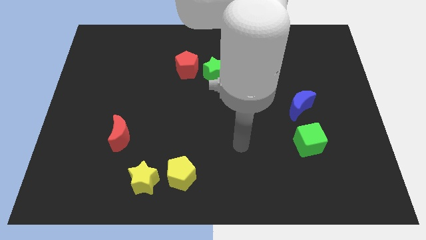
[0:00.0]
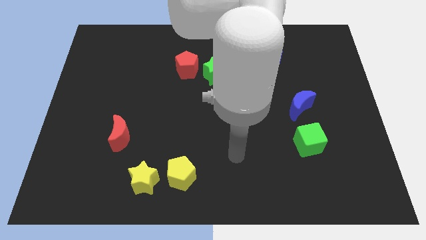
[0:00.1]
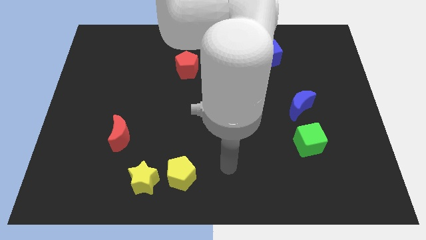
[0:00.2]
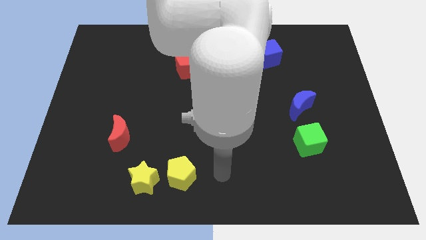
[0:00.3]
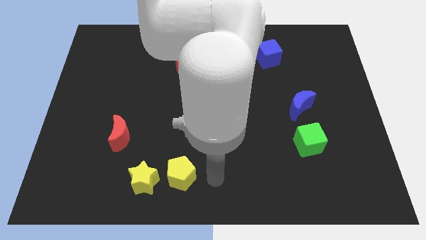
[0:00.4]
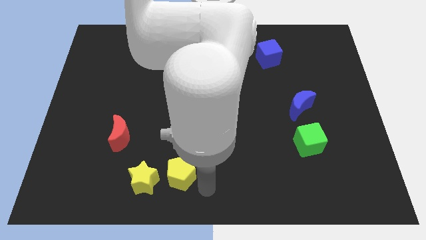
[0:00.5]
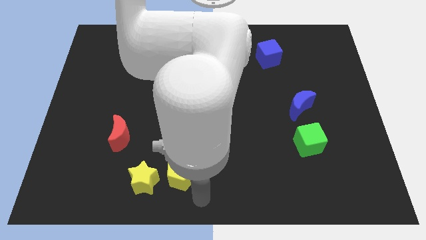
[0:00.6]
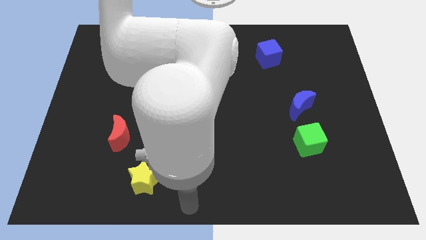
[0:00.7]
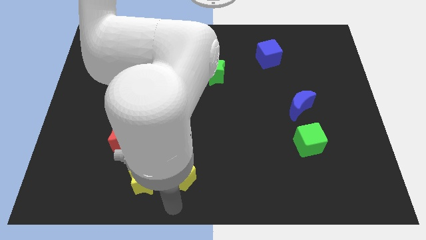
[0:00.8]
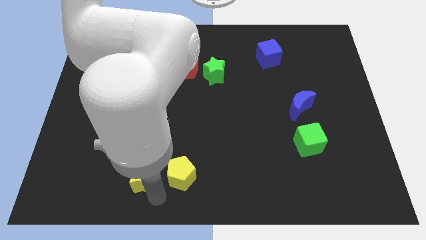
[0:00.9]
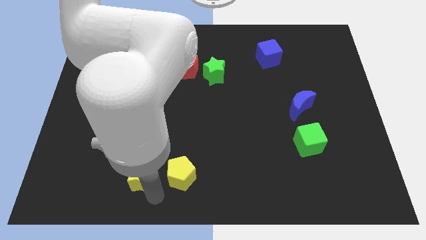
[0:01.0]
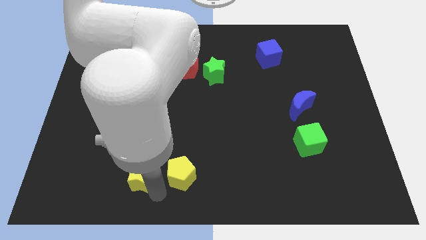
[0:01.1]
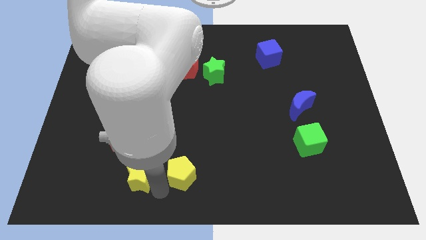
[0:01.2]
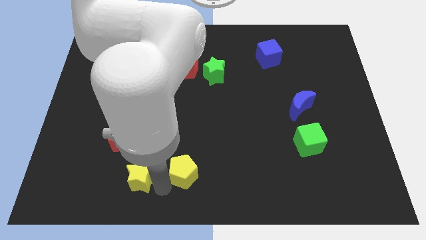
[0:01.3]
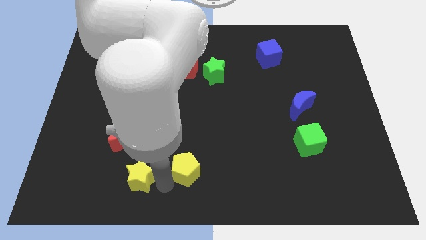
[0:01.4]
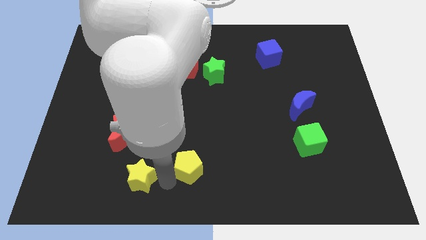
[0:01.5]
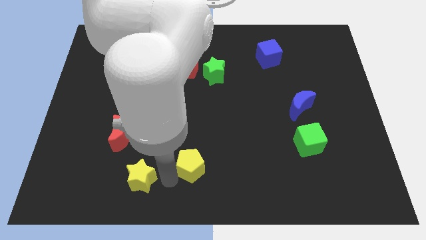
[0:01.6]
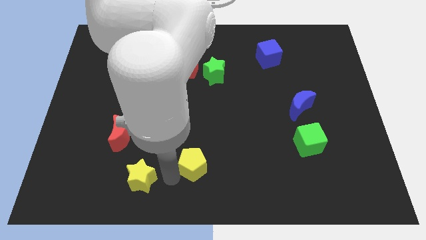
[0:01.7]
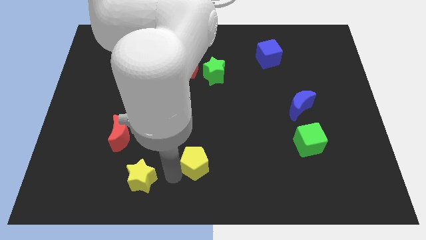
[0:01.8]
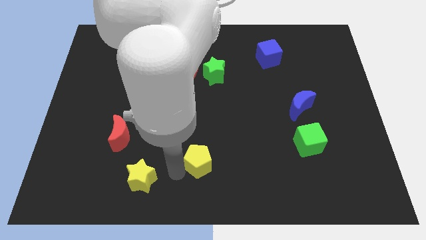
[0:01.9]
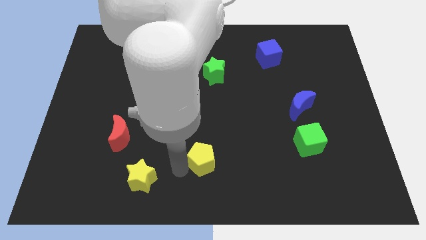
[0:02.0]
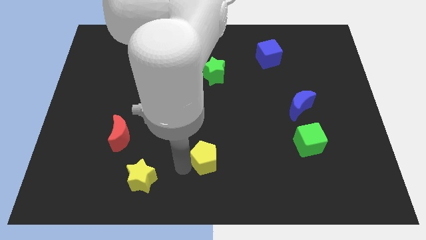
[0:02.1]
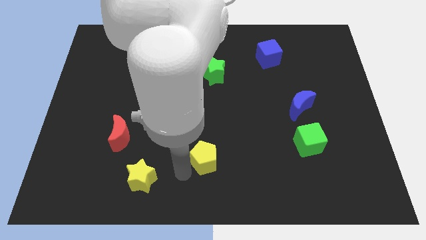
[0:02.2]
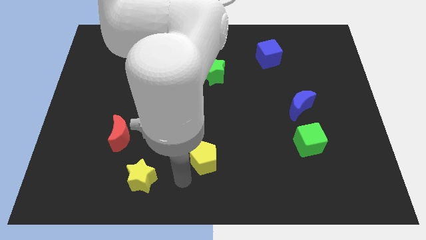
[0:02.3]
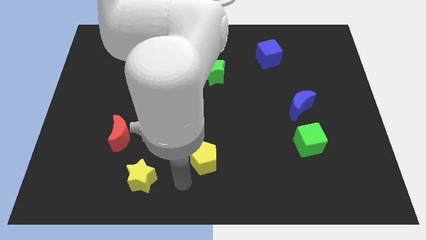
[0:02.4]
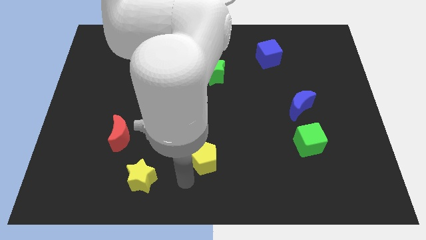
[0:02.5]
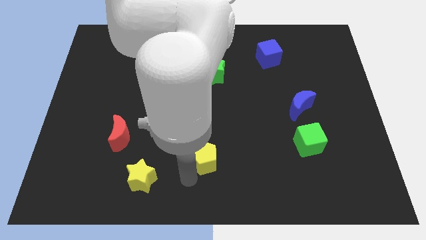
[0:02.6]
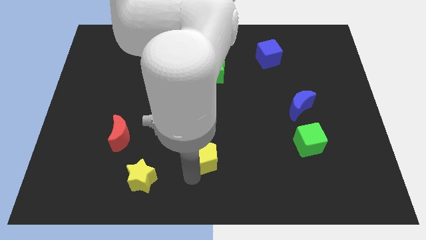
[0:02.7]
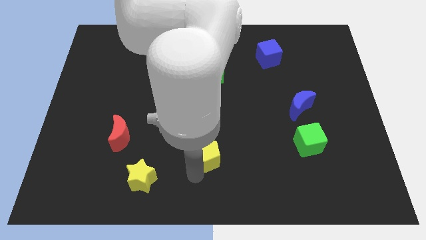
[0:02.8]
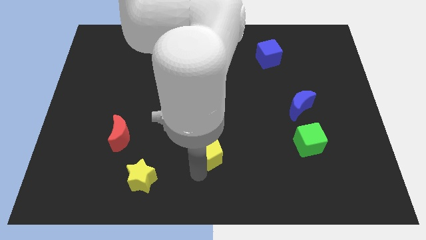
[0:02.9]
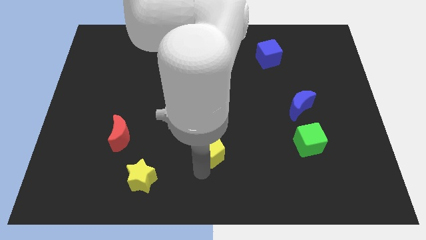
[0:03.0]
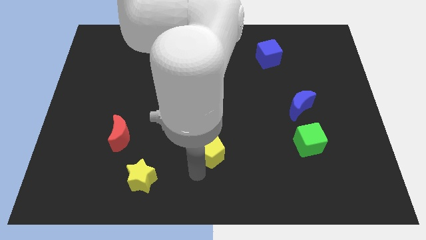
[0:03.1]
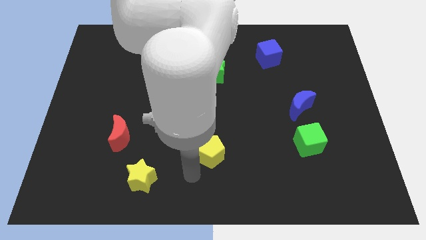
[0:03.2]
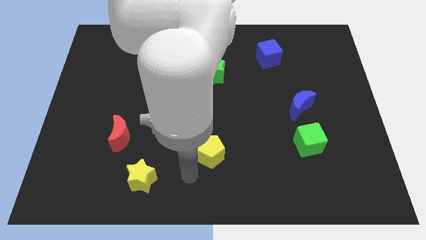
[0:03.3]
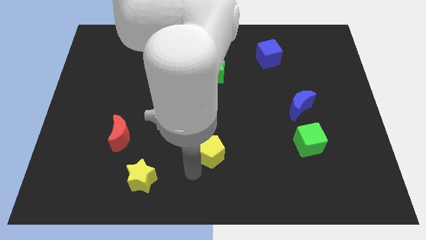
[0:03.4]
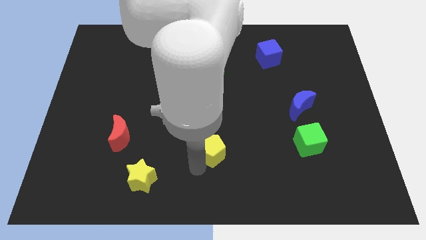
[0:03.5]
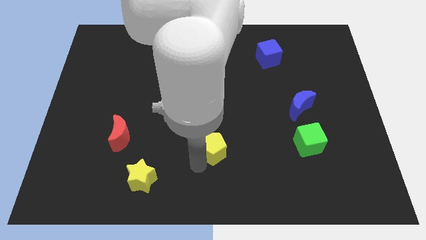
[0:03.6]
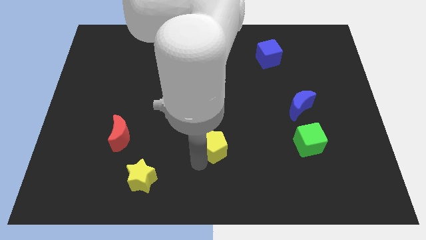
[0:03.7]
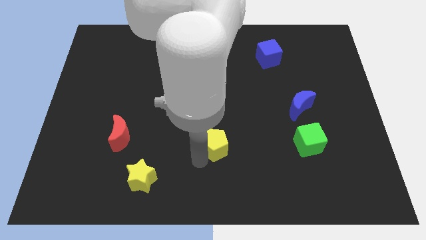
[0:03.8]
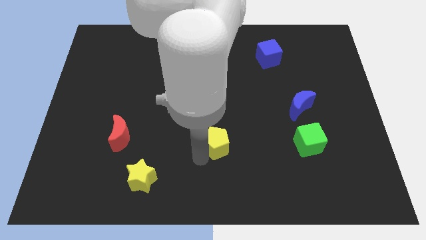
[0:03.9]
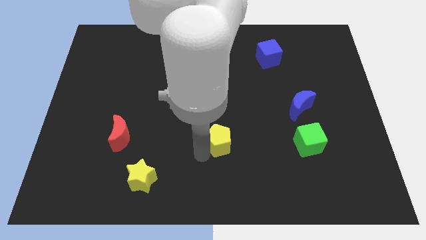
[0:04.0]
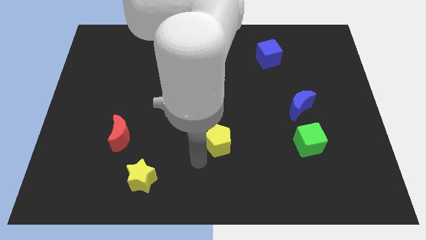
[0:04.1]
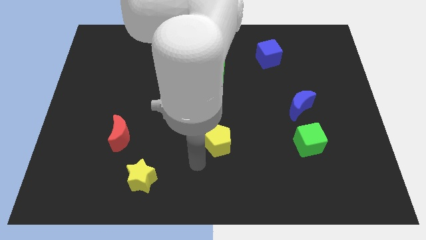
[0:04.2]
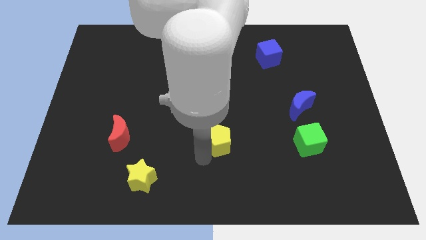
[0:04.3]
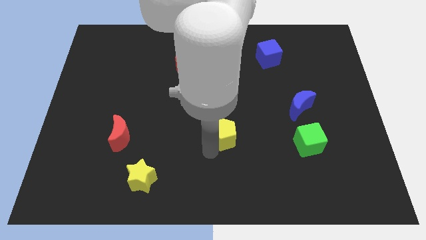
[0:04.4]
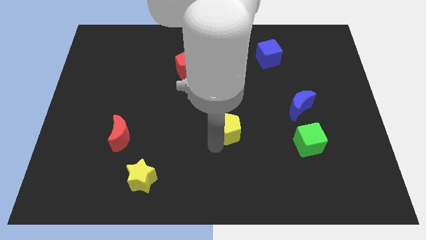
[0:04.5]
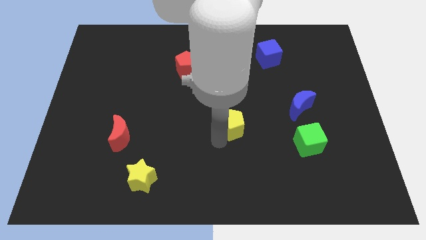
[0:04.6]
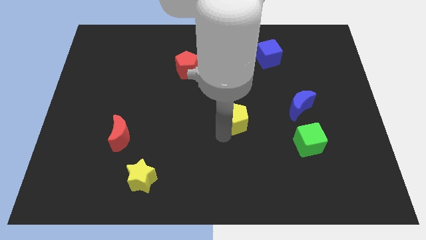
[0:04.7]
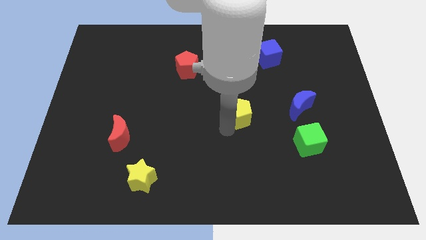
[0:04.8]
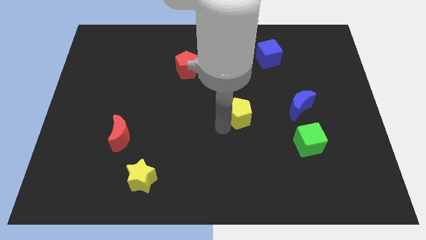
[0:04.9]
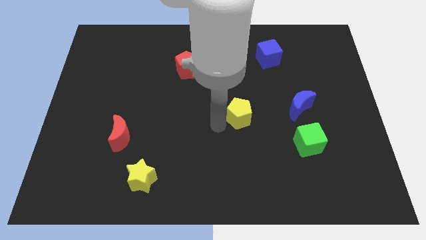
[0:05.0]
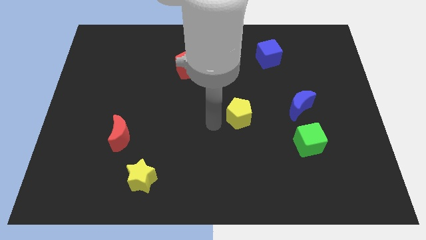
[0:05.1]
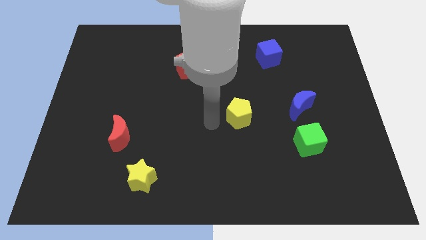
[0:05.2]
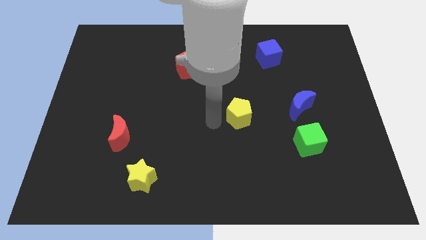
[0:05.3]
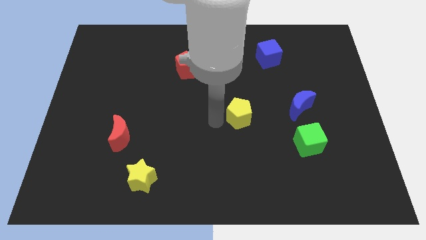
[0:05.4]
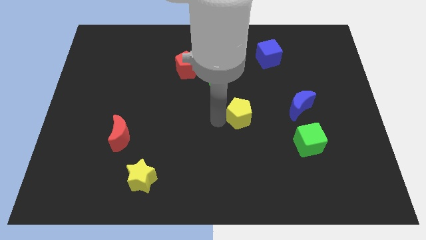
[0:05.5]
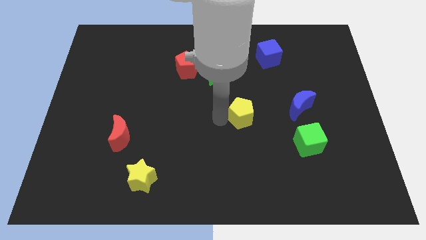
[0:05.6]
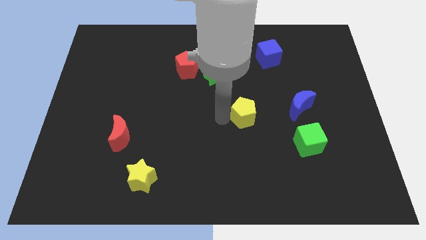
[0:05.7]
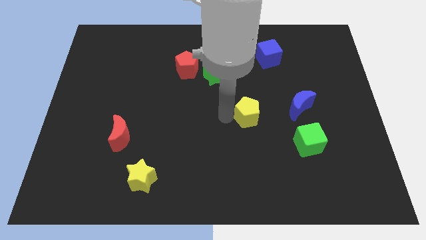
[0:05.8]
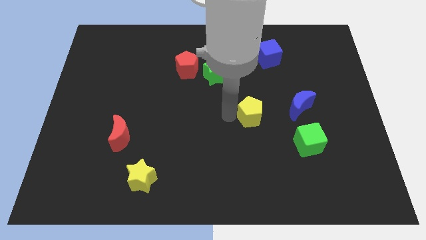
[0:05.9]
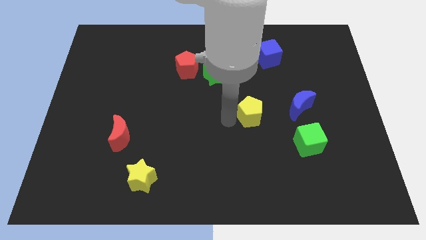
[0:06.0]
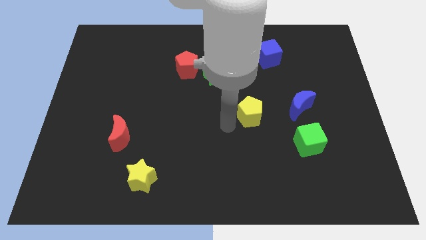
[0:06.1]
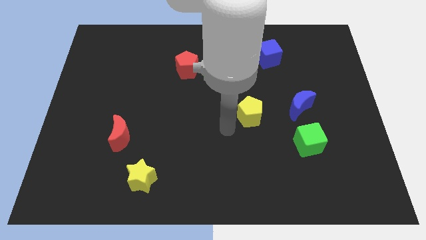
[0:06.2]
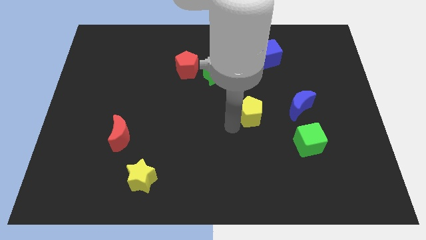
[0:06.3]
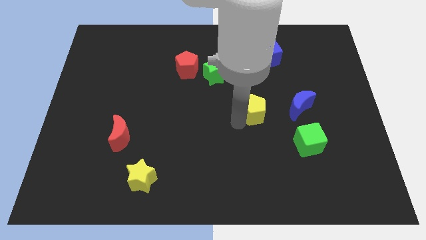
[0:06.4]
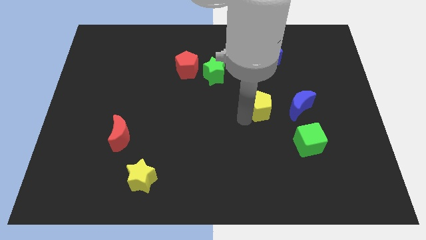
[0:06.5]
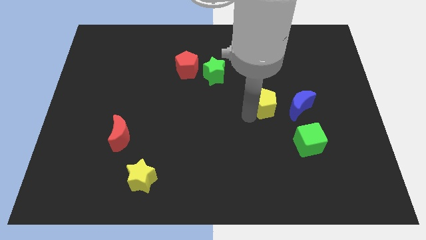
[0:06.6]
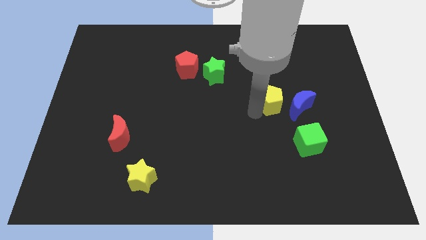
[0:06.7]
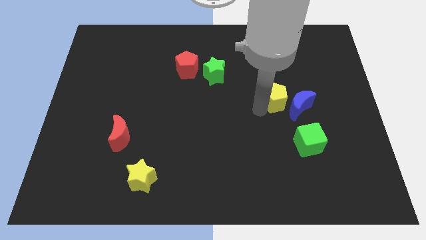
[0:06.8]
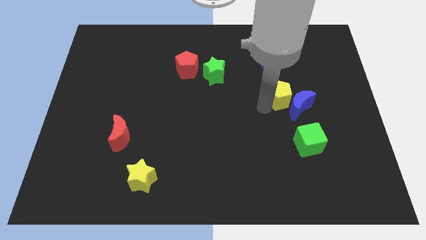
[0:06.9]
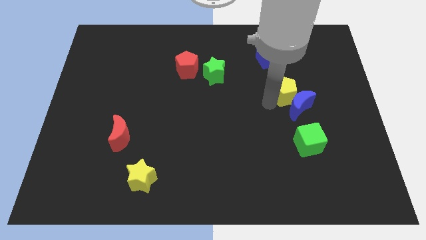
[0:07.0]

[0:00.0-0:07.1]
push the yellow pentagon above the green cube
